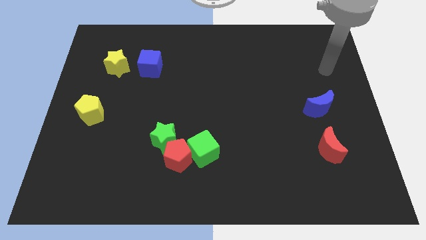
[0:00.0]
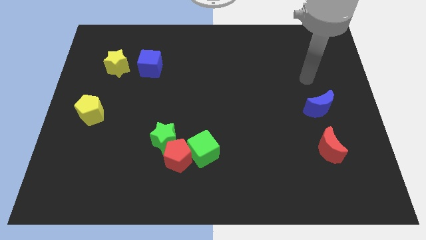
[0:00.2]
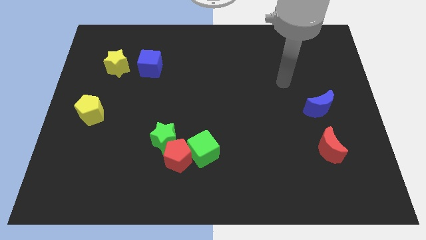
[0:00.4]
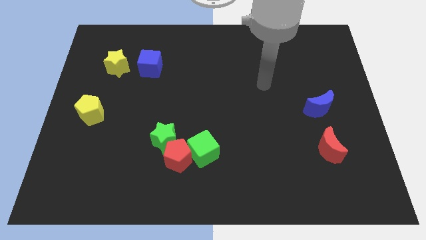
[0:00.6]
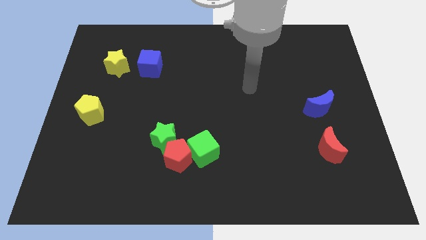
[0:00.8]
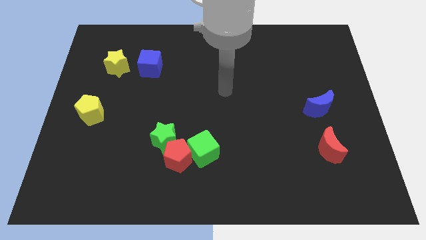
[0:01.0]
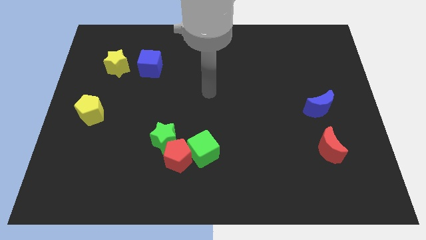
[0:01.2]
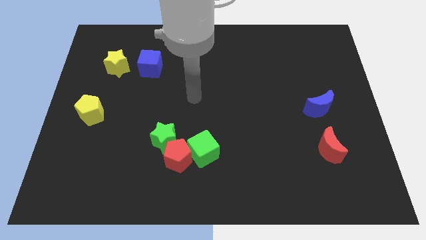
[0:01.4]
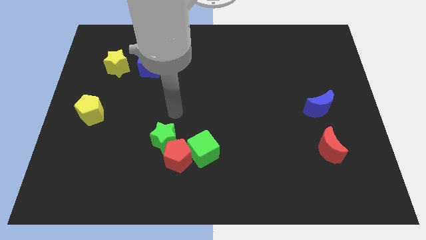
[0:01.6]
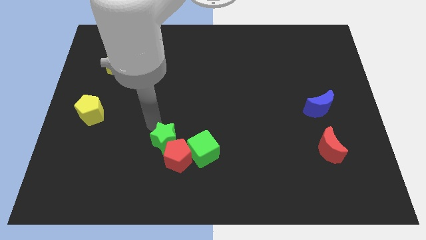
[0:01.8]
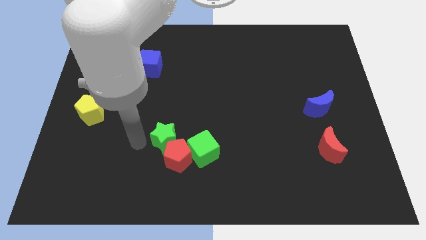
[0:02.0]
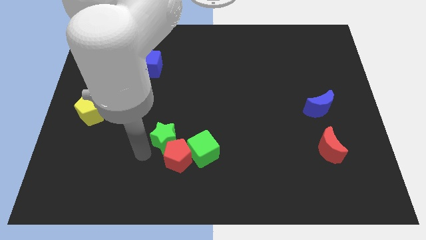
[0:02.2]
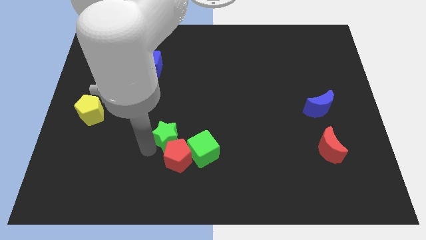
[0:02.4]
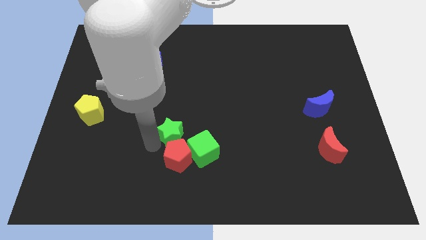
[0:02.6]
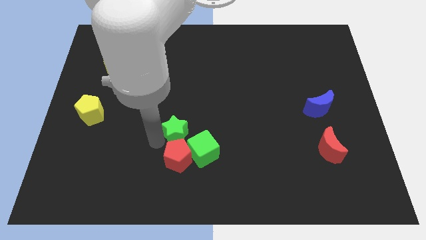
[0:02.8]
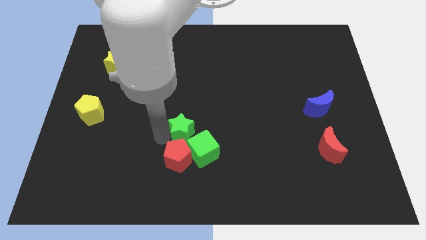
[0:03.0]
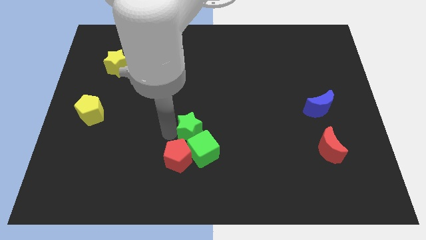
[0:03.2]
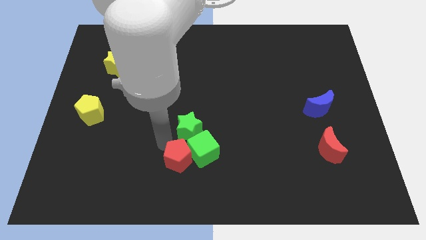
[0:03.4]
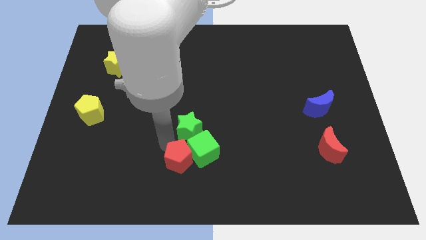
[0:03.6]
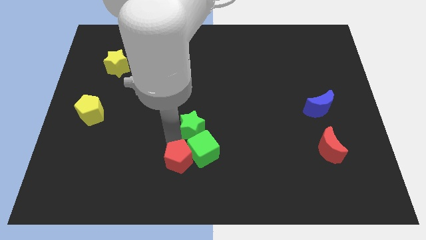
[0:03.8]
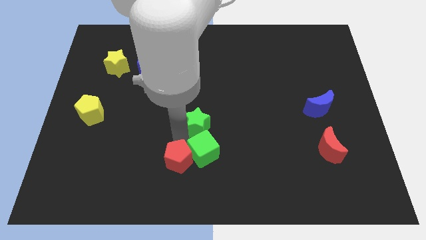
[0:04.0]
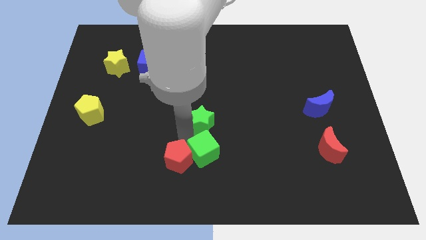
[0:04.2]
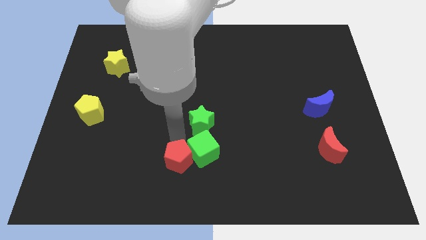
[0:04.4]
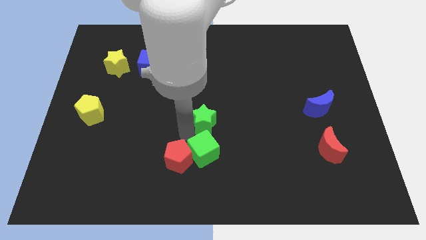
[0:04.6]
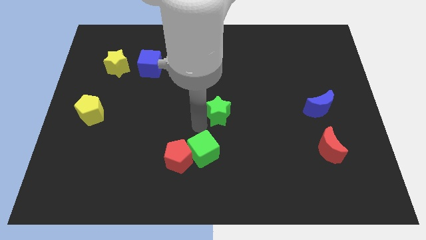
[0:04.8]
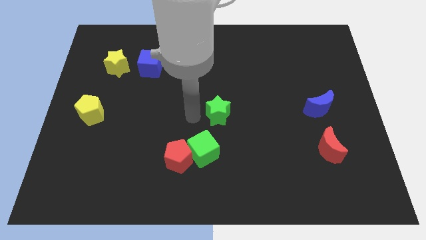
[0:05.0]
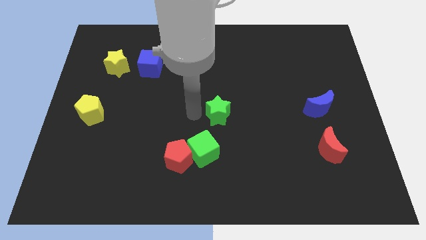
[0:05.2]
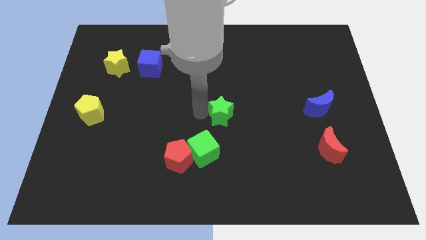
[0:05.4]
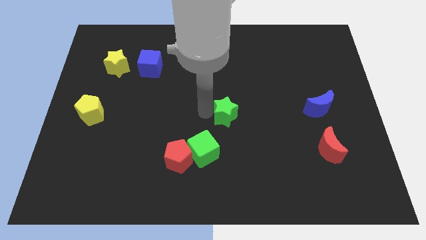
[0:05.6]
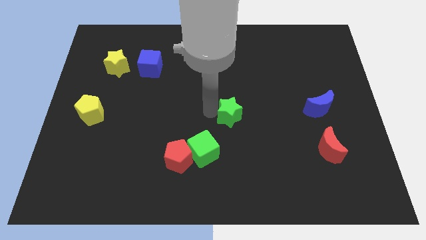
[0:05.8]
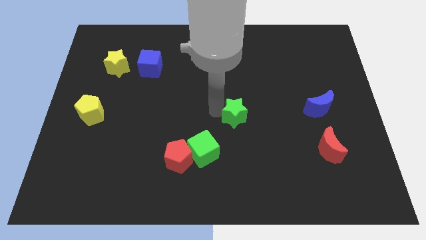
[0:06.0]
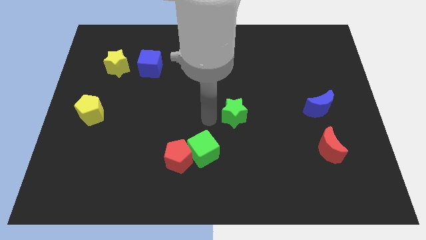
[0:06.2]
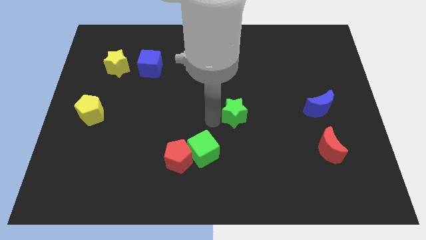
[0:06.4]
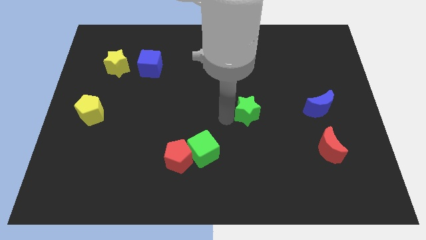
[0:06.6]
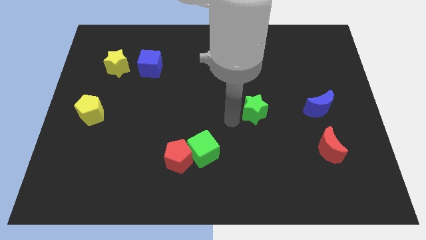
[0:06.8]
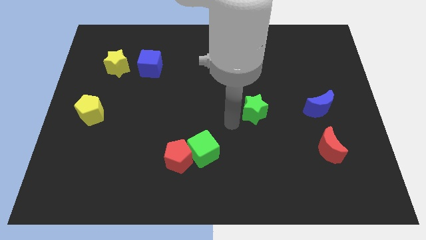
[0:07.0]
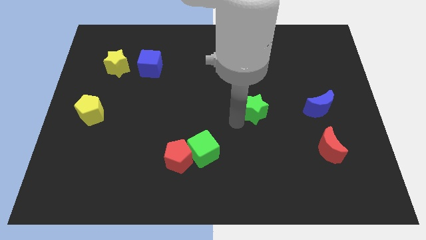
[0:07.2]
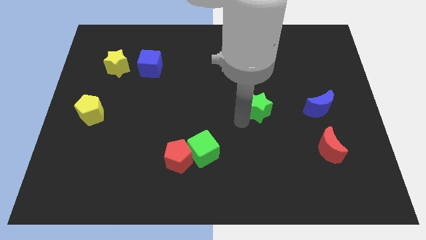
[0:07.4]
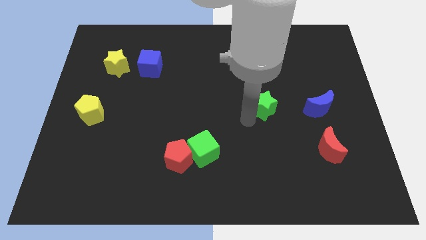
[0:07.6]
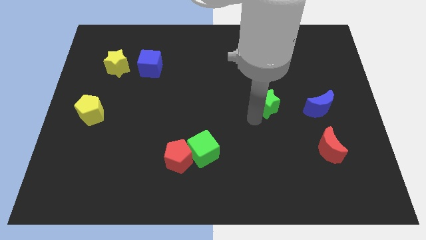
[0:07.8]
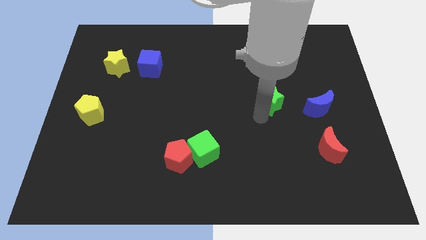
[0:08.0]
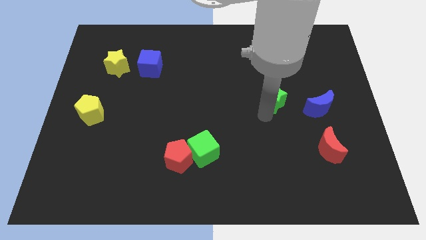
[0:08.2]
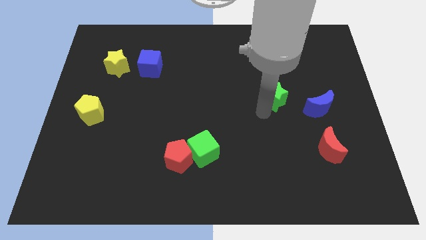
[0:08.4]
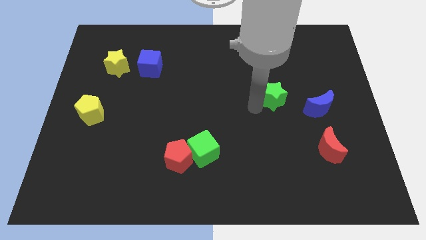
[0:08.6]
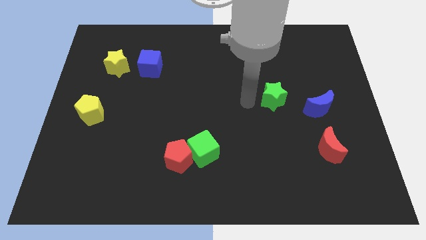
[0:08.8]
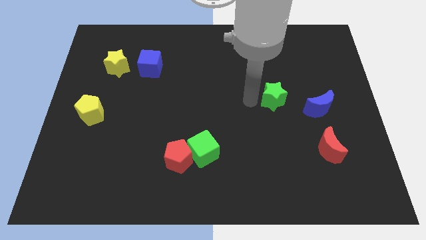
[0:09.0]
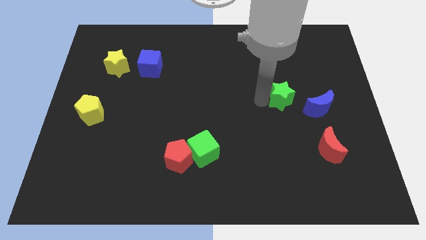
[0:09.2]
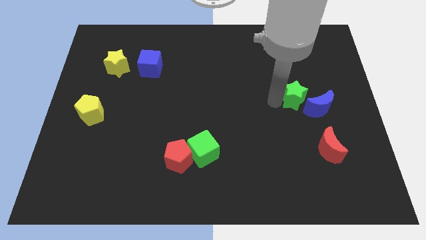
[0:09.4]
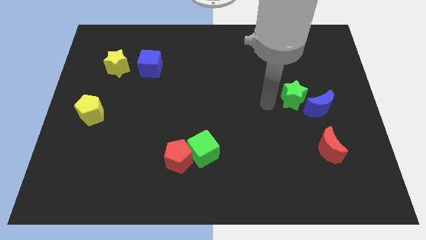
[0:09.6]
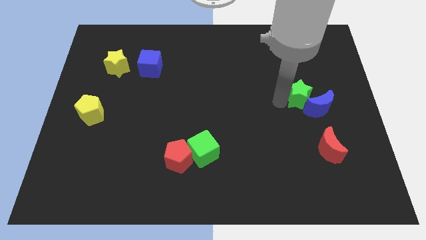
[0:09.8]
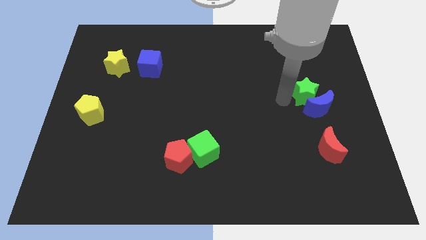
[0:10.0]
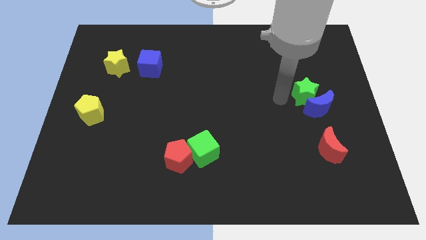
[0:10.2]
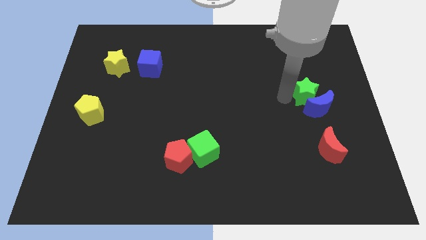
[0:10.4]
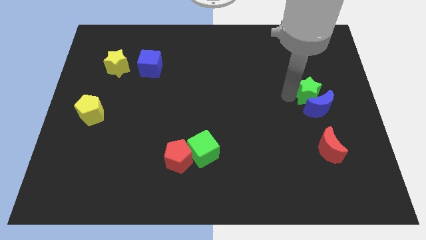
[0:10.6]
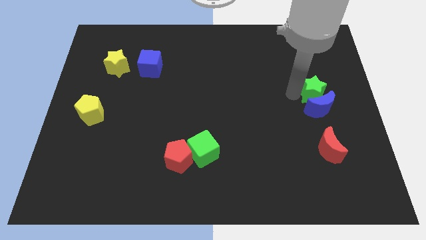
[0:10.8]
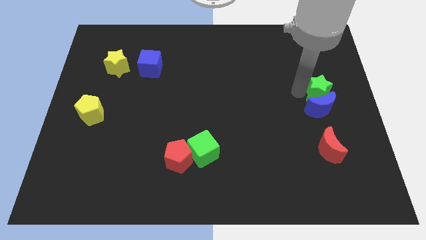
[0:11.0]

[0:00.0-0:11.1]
put the green star to the right side
